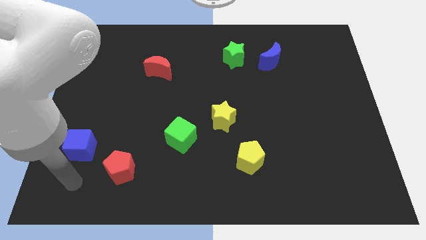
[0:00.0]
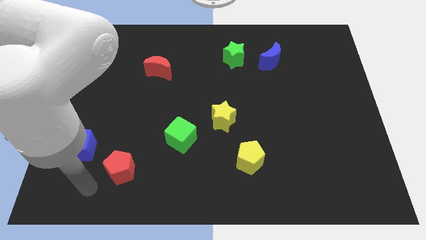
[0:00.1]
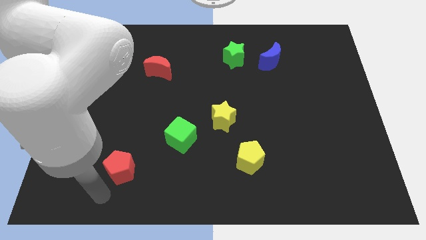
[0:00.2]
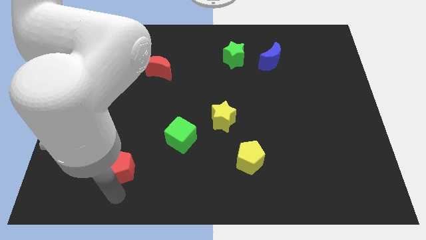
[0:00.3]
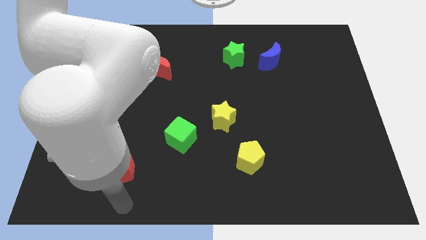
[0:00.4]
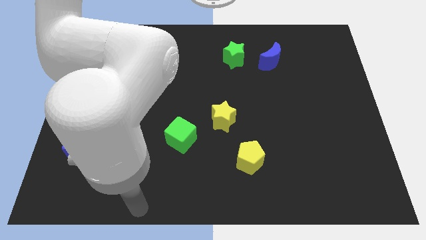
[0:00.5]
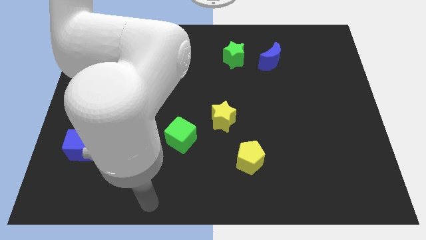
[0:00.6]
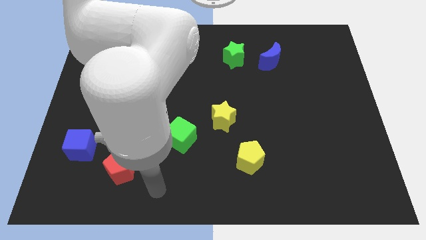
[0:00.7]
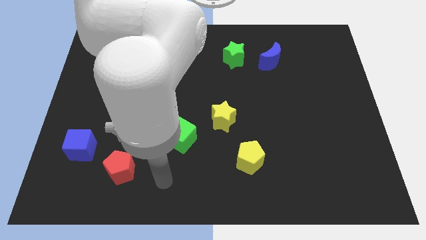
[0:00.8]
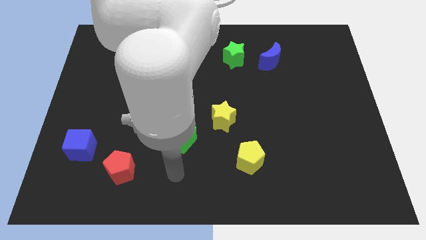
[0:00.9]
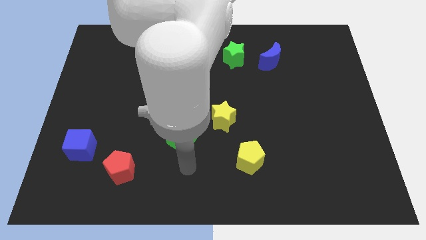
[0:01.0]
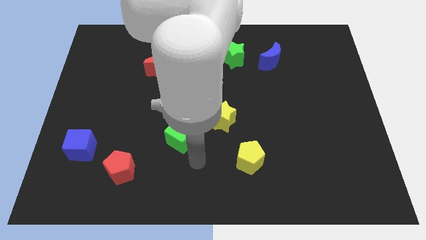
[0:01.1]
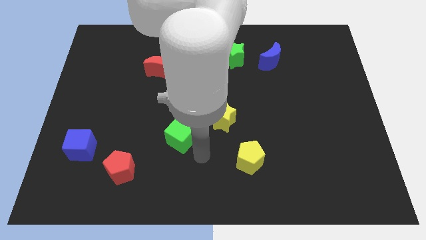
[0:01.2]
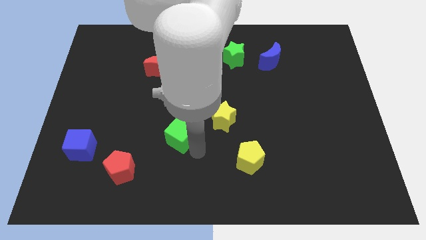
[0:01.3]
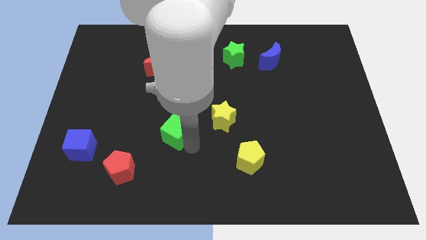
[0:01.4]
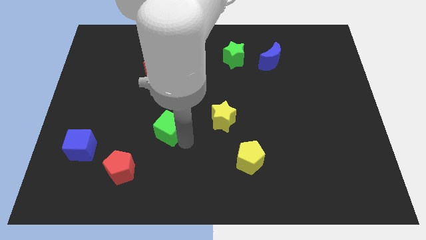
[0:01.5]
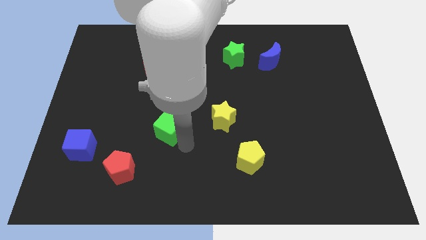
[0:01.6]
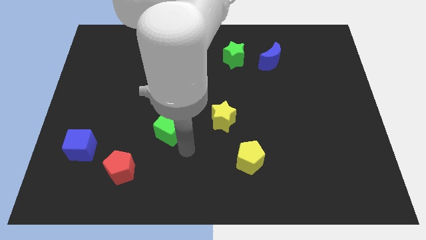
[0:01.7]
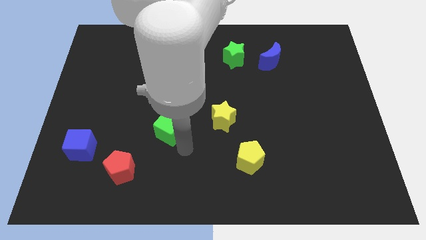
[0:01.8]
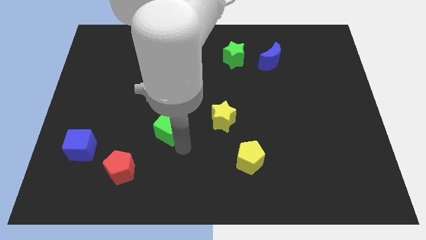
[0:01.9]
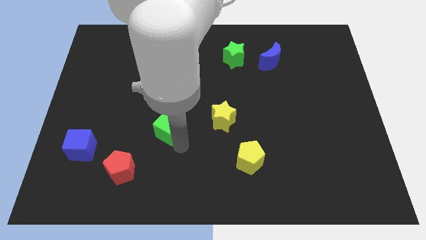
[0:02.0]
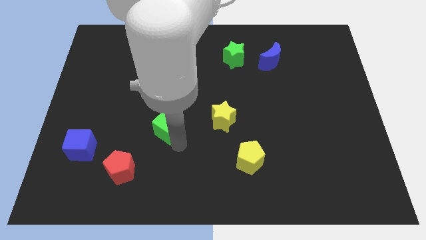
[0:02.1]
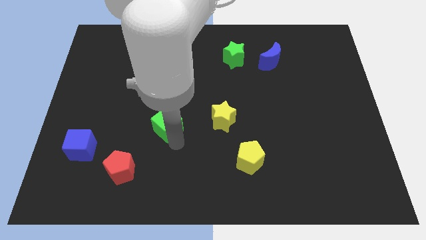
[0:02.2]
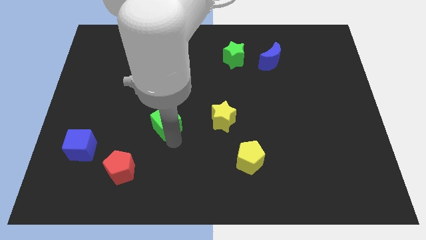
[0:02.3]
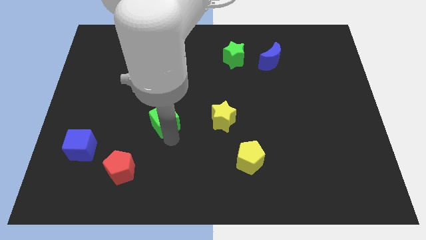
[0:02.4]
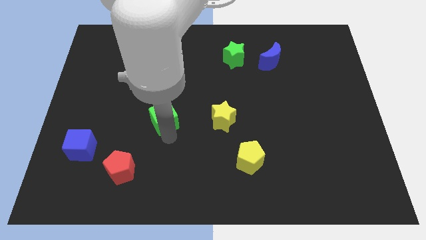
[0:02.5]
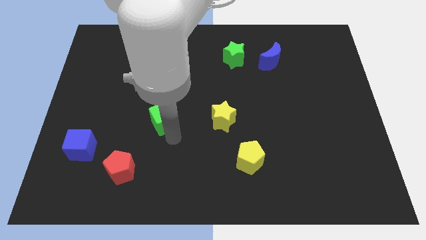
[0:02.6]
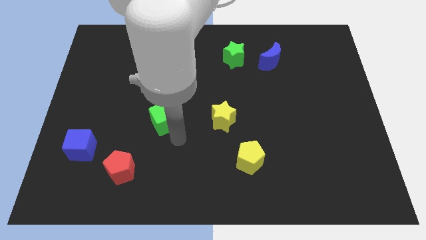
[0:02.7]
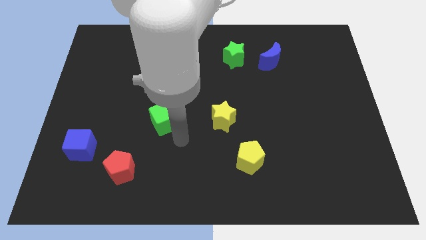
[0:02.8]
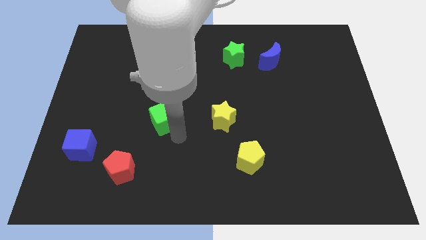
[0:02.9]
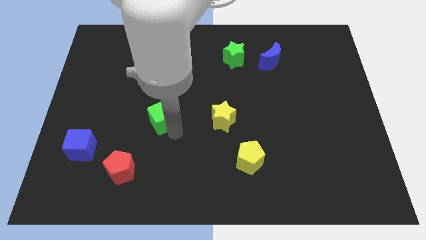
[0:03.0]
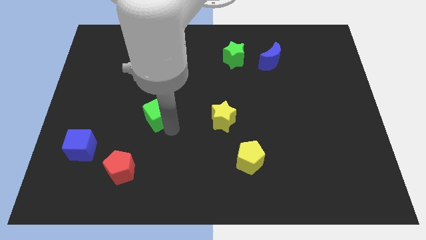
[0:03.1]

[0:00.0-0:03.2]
push the green cube diagonally up and to the left a little

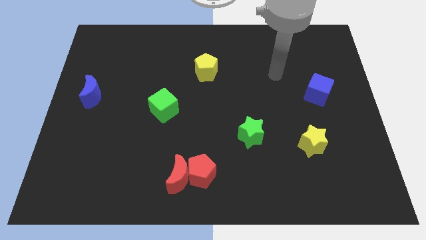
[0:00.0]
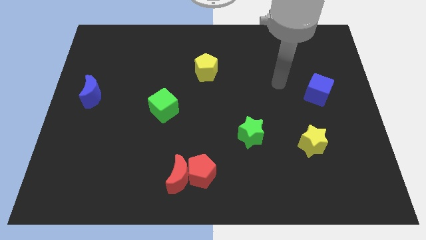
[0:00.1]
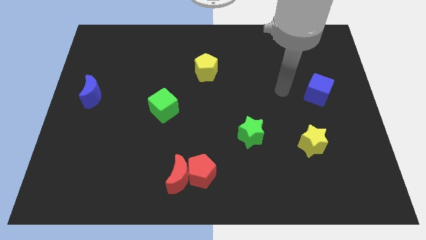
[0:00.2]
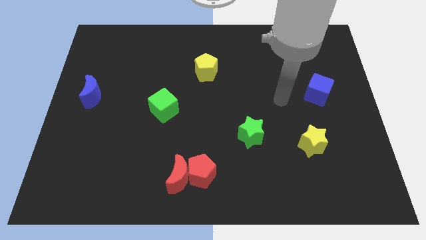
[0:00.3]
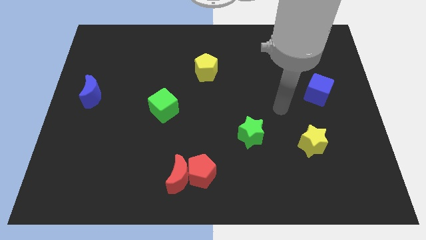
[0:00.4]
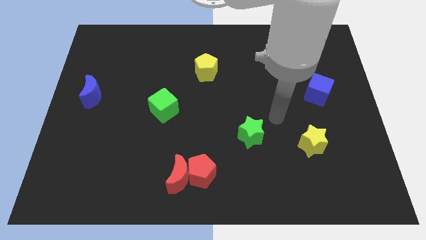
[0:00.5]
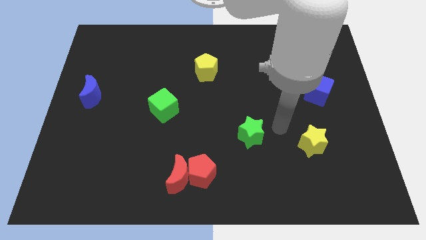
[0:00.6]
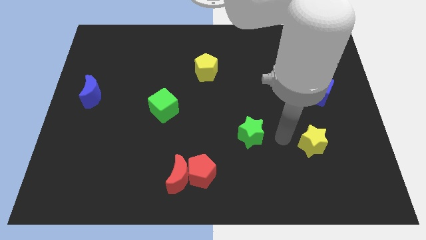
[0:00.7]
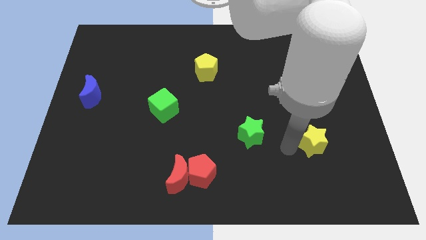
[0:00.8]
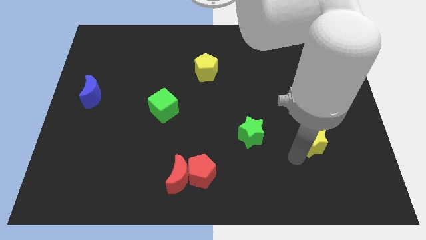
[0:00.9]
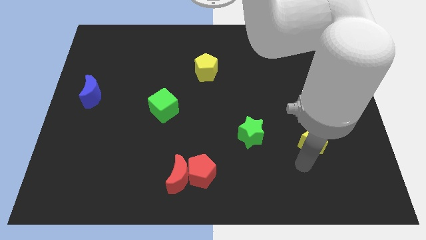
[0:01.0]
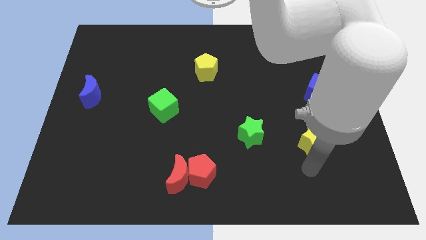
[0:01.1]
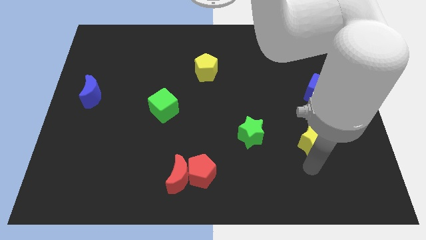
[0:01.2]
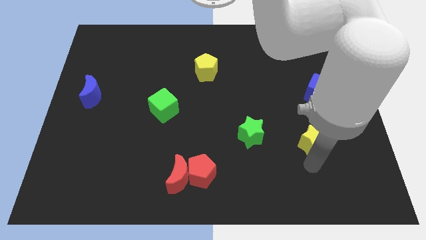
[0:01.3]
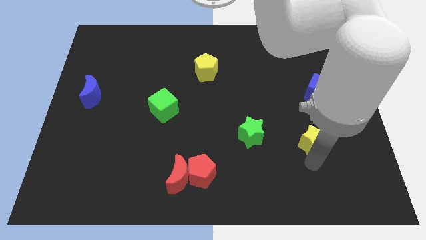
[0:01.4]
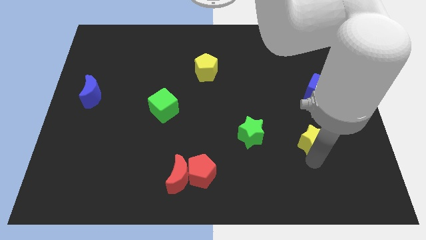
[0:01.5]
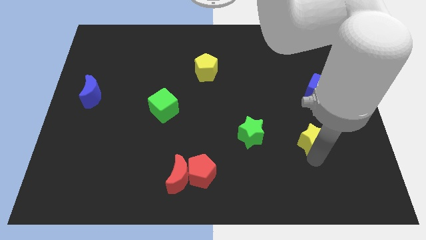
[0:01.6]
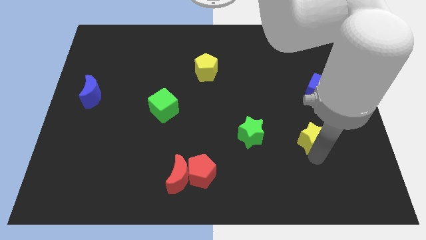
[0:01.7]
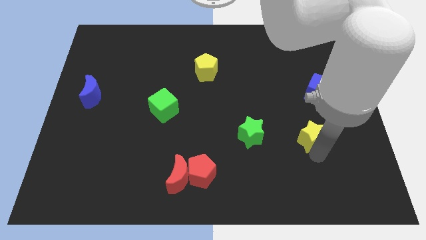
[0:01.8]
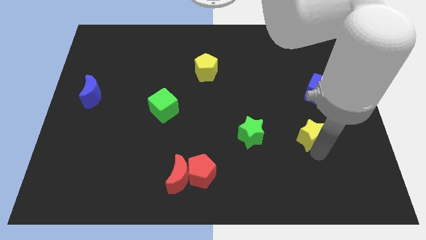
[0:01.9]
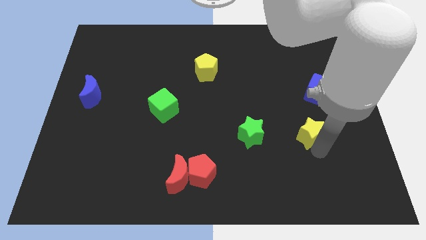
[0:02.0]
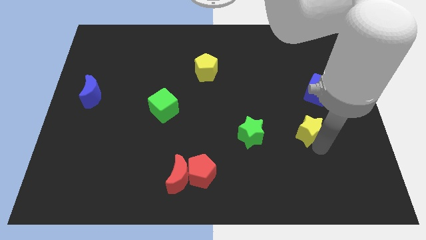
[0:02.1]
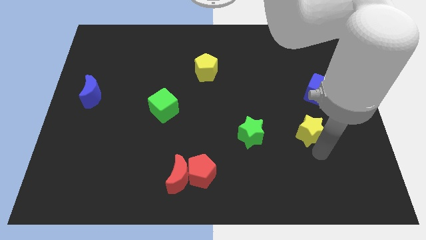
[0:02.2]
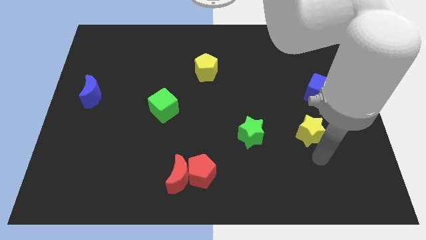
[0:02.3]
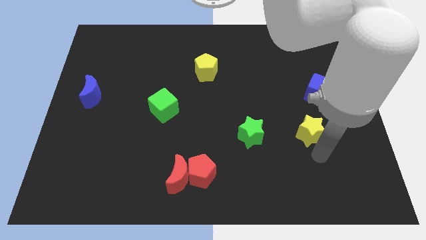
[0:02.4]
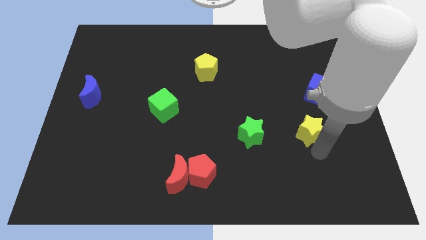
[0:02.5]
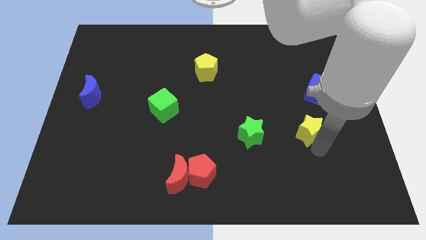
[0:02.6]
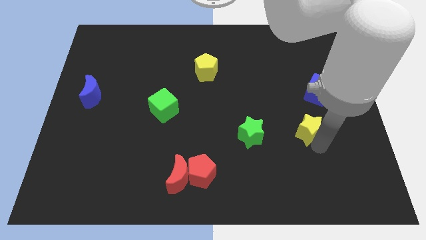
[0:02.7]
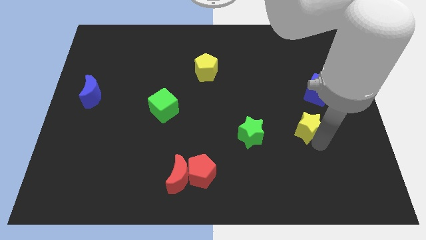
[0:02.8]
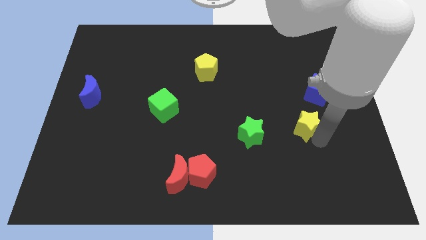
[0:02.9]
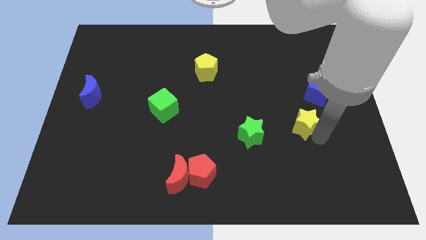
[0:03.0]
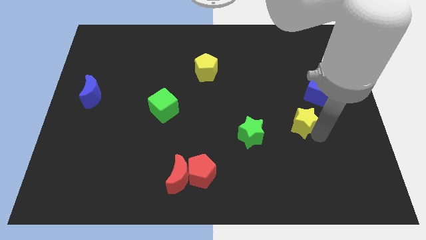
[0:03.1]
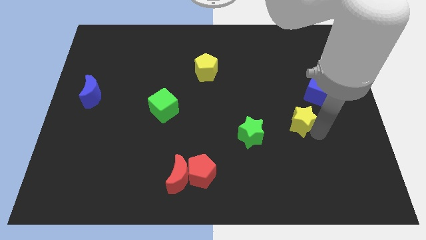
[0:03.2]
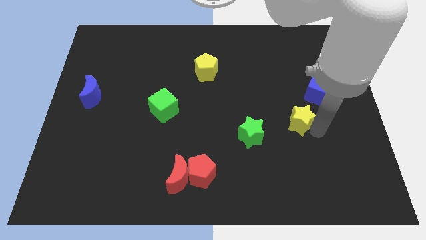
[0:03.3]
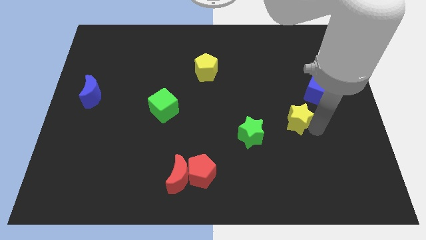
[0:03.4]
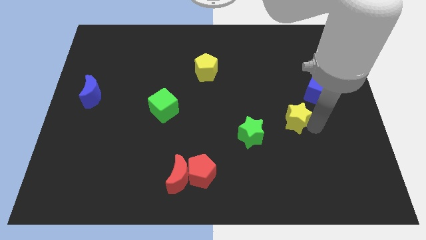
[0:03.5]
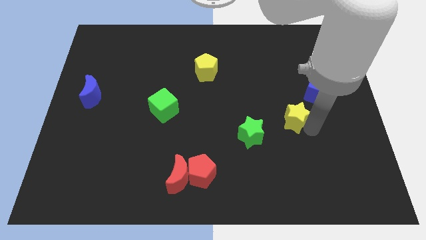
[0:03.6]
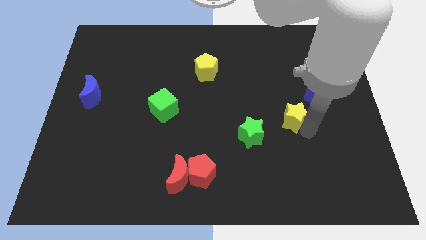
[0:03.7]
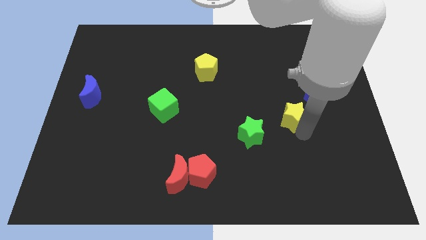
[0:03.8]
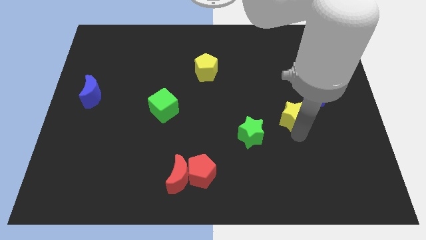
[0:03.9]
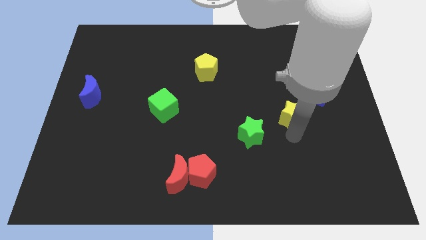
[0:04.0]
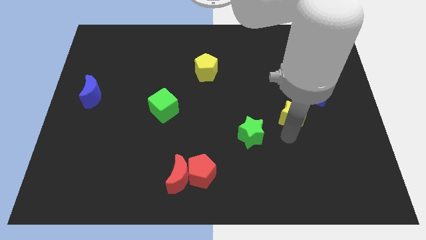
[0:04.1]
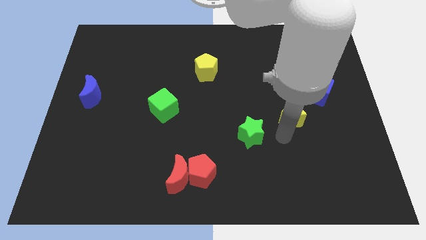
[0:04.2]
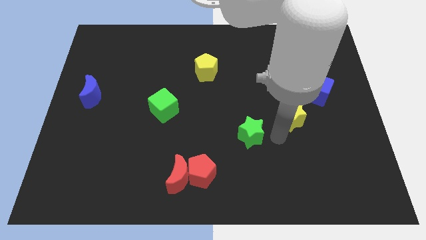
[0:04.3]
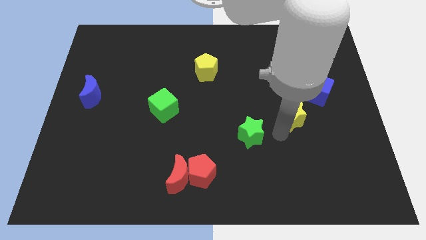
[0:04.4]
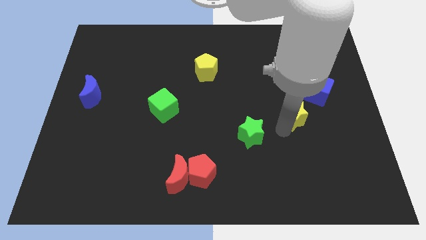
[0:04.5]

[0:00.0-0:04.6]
slide the yellow star a little bit upwards
